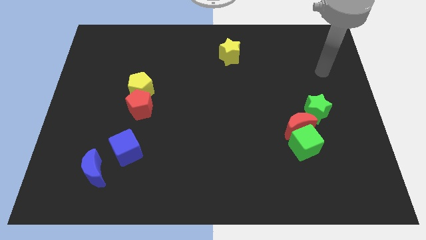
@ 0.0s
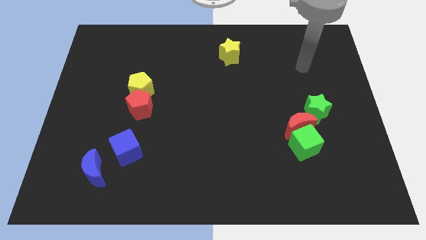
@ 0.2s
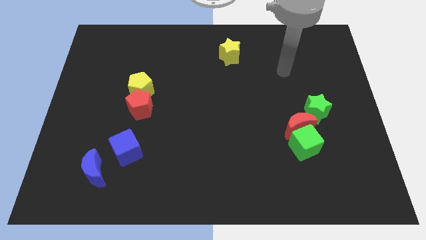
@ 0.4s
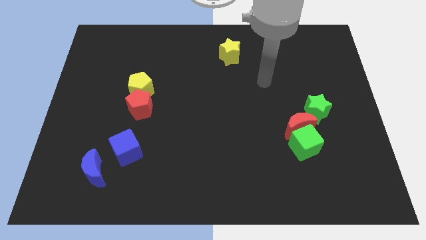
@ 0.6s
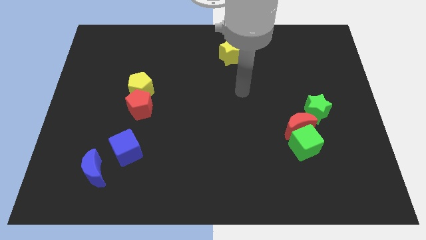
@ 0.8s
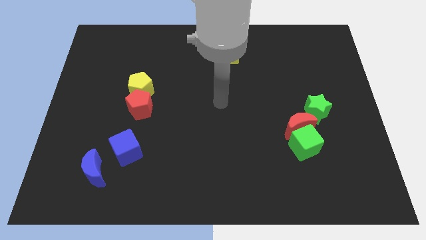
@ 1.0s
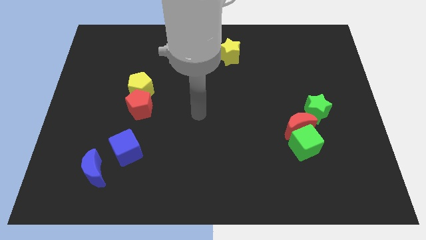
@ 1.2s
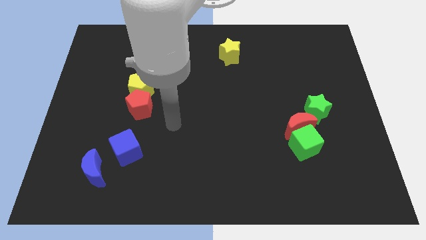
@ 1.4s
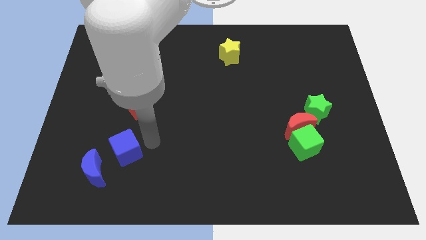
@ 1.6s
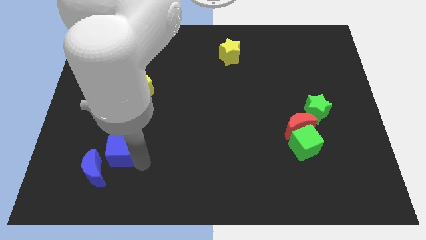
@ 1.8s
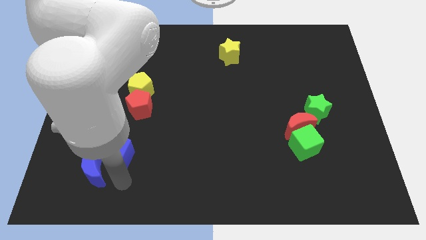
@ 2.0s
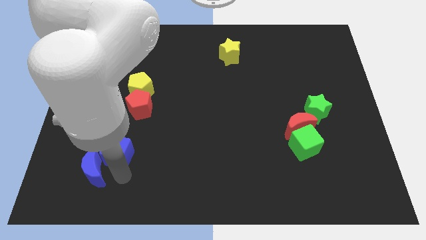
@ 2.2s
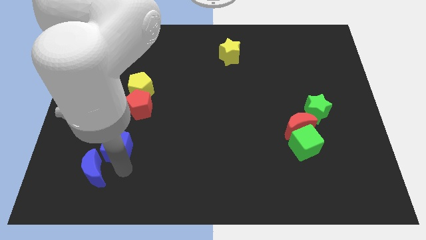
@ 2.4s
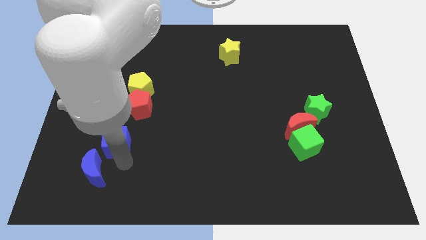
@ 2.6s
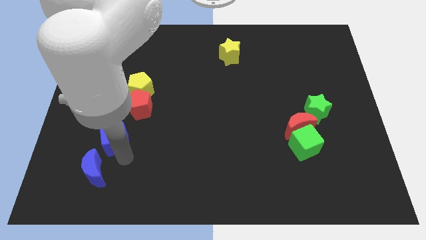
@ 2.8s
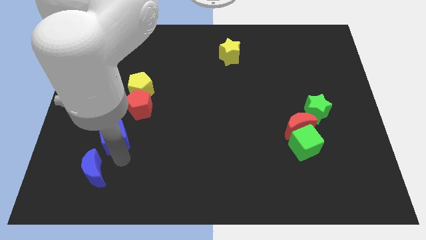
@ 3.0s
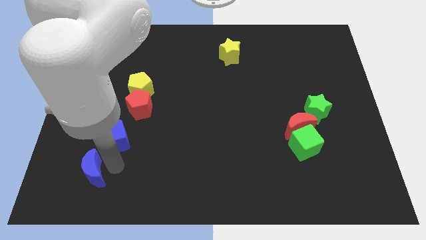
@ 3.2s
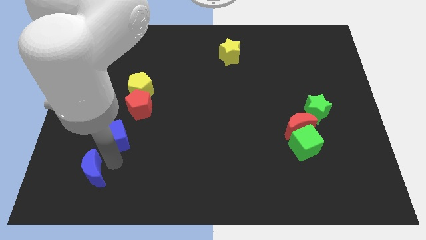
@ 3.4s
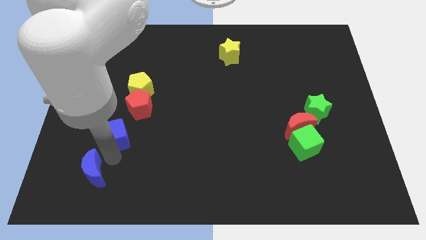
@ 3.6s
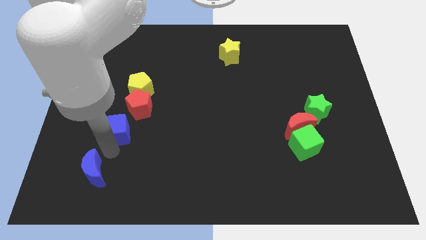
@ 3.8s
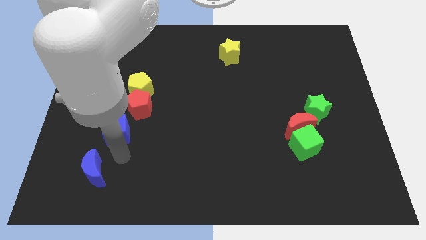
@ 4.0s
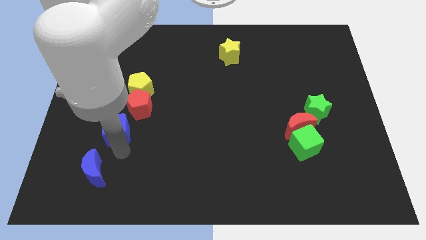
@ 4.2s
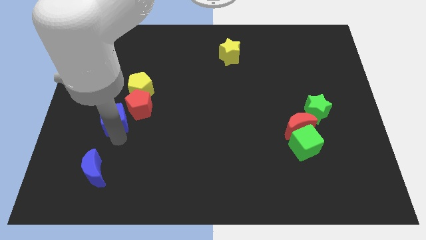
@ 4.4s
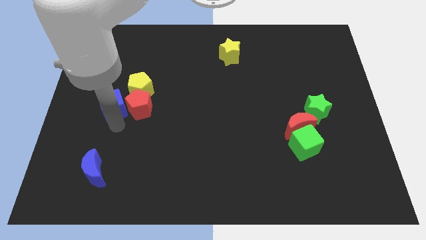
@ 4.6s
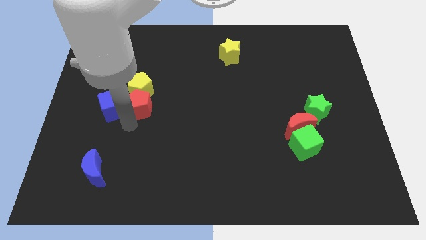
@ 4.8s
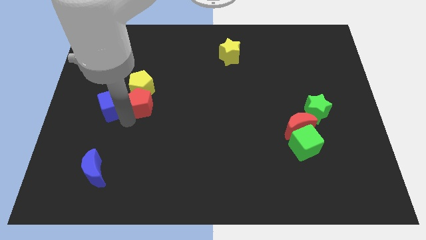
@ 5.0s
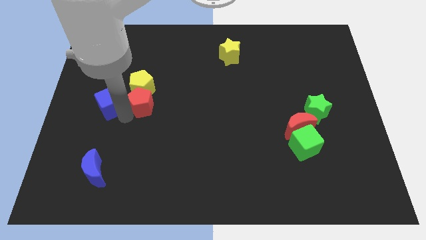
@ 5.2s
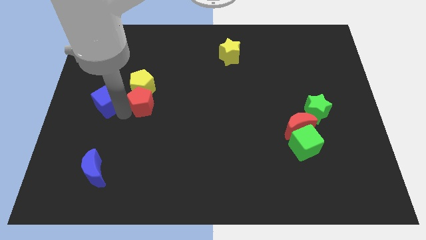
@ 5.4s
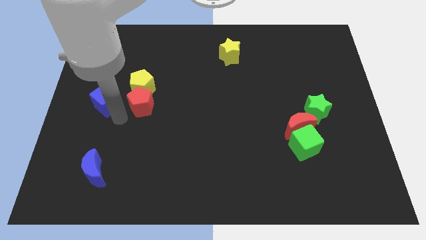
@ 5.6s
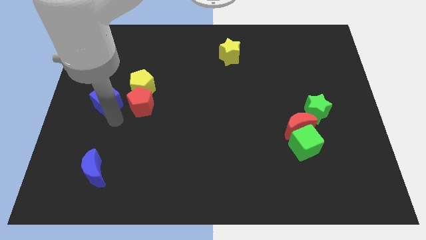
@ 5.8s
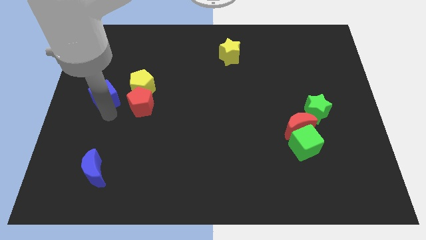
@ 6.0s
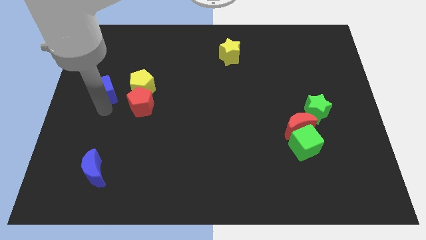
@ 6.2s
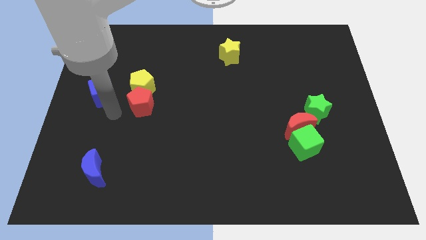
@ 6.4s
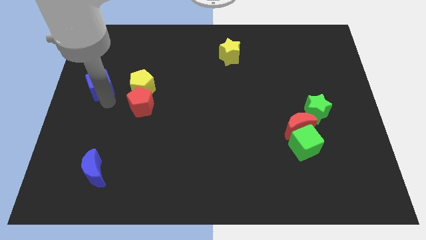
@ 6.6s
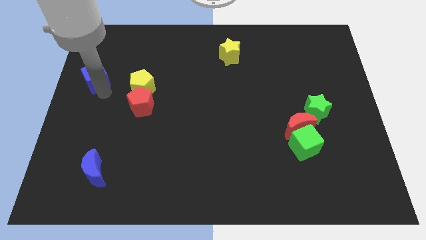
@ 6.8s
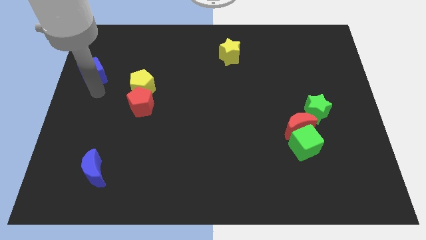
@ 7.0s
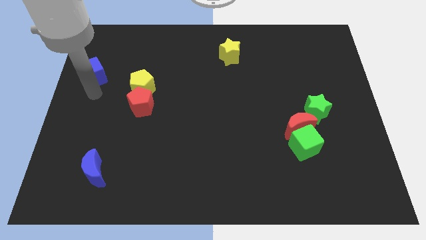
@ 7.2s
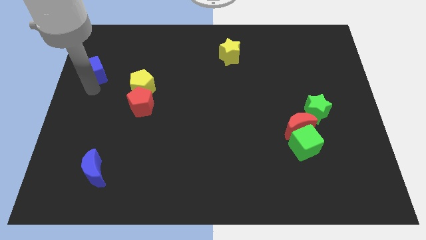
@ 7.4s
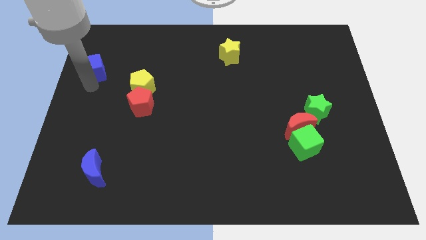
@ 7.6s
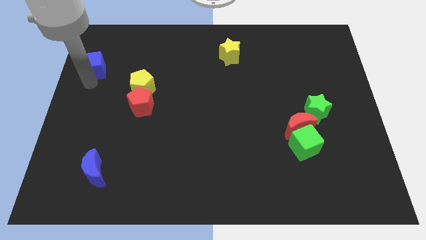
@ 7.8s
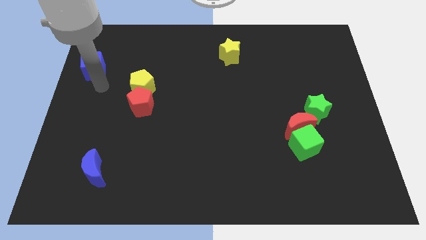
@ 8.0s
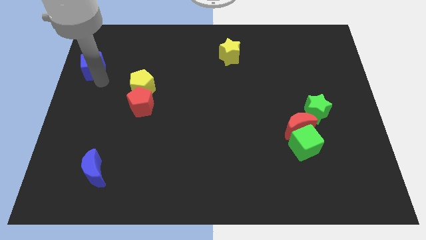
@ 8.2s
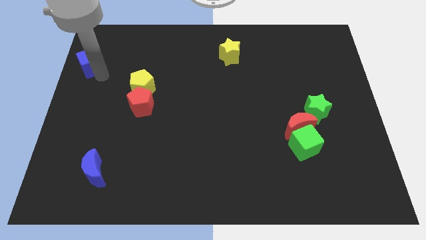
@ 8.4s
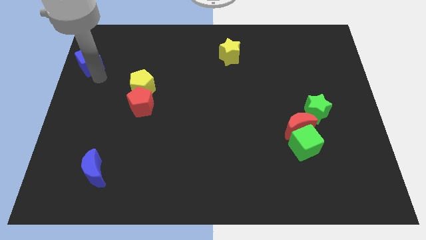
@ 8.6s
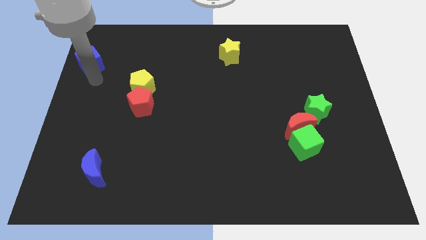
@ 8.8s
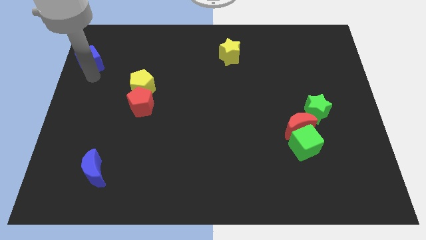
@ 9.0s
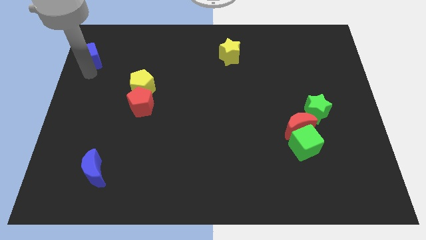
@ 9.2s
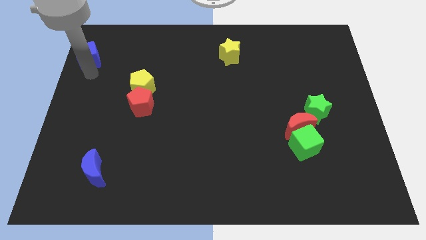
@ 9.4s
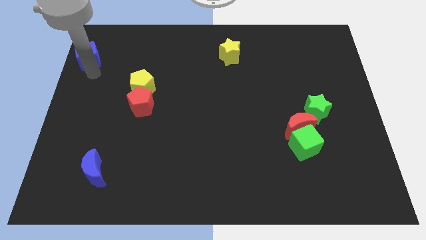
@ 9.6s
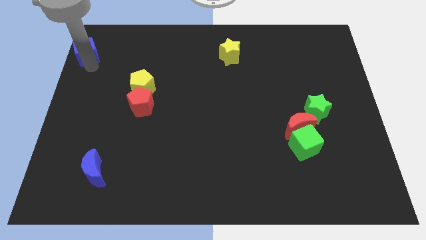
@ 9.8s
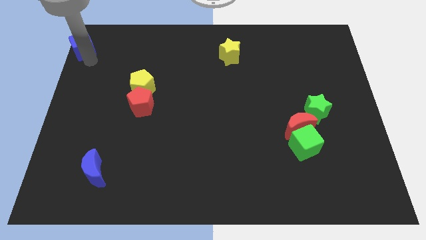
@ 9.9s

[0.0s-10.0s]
slide the blue cube to the top left corner

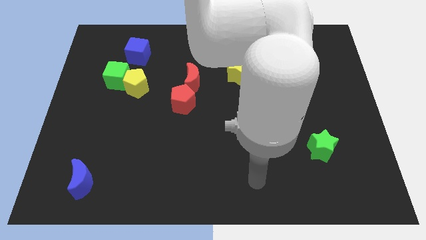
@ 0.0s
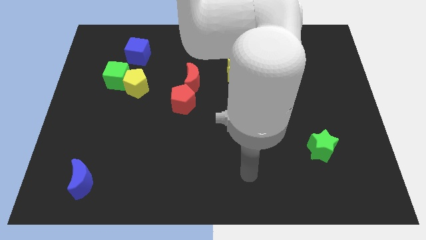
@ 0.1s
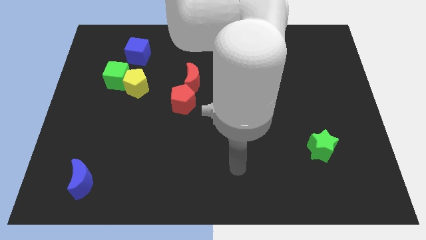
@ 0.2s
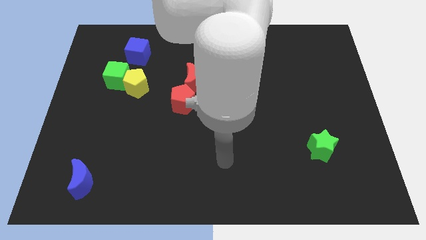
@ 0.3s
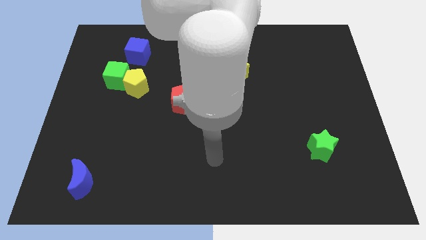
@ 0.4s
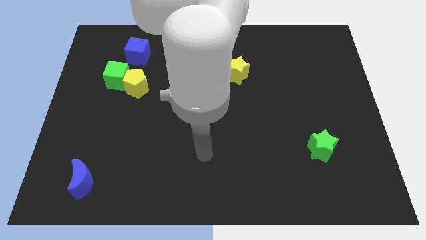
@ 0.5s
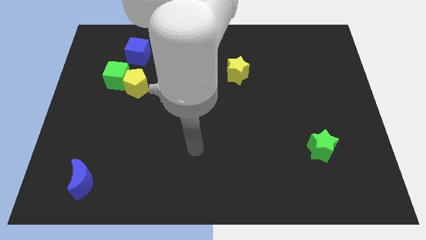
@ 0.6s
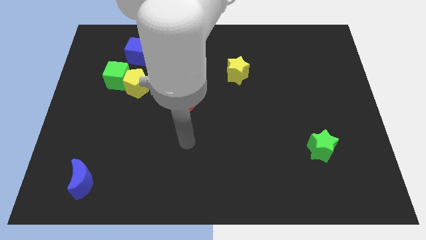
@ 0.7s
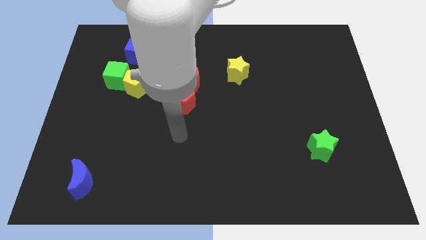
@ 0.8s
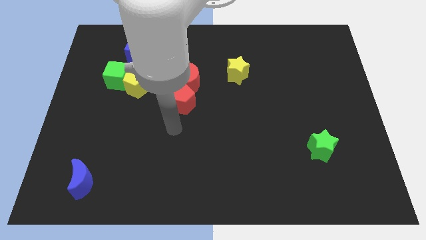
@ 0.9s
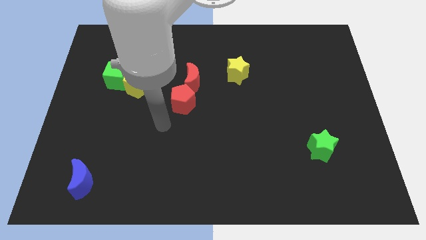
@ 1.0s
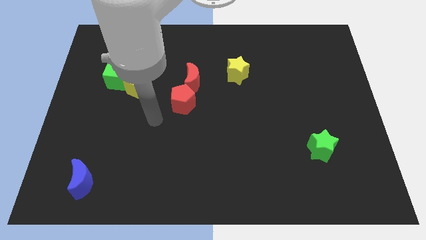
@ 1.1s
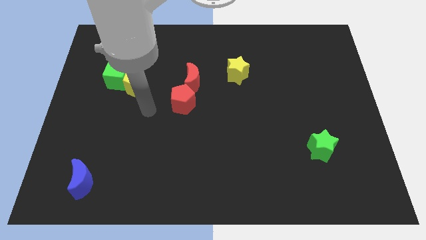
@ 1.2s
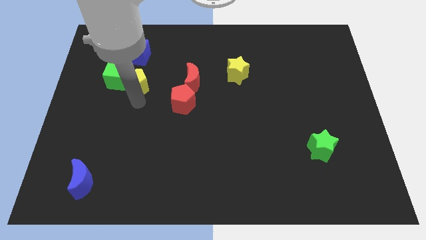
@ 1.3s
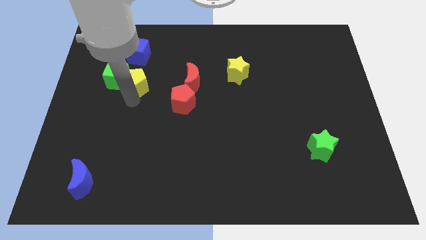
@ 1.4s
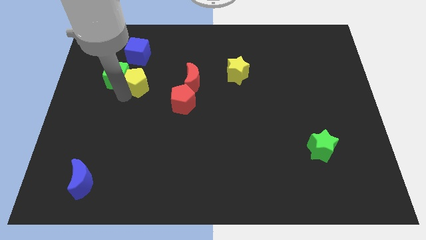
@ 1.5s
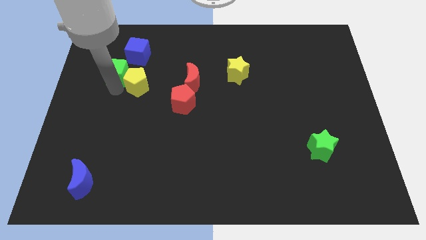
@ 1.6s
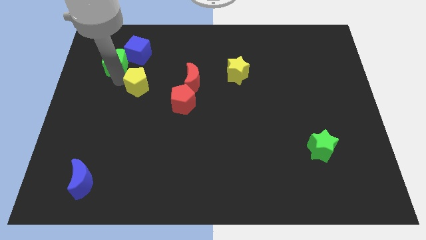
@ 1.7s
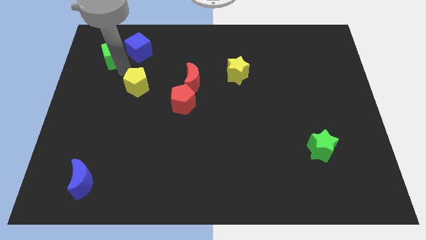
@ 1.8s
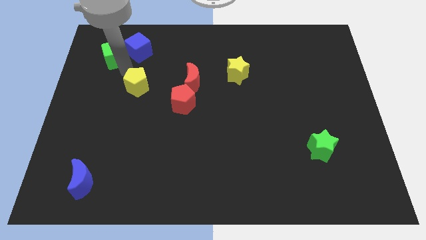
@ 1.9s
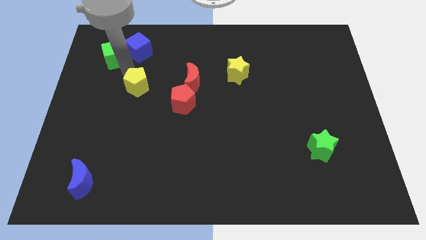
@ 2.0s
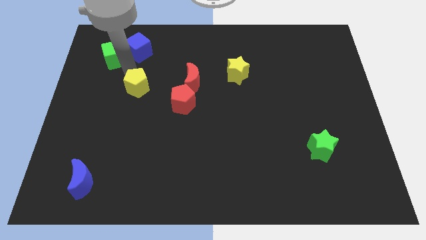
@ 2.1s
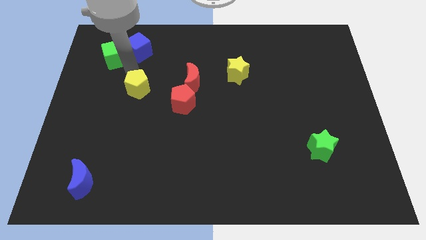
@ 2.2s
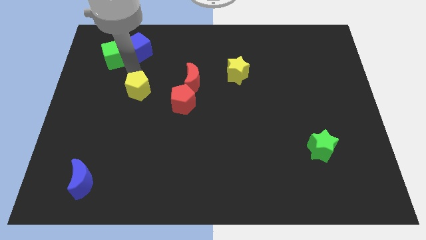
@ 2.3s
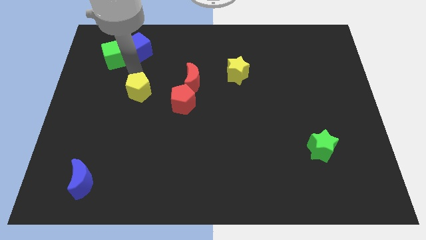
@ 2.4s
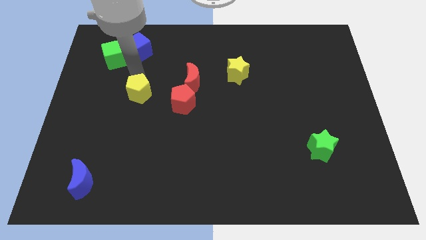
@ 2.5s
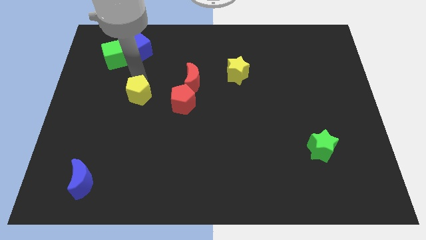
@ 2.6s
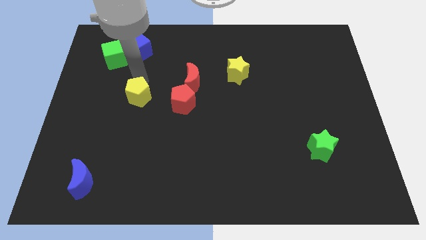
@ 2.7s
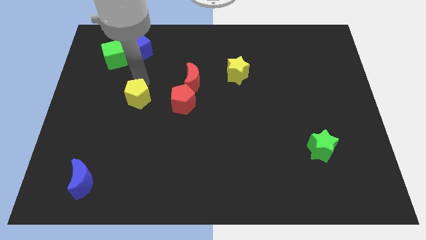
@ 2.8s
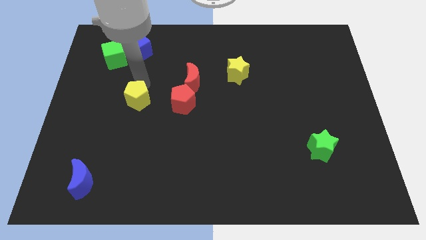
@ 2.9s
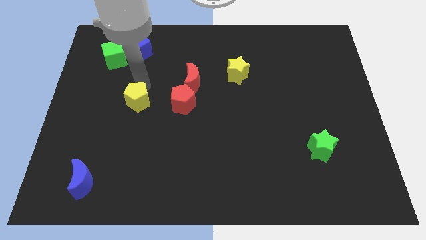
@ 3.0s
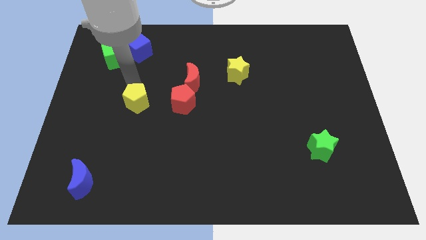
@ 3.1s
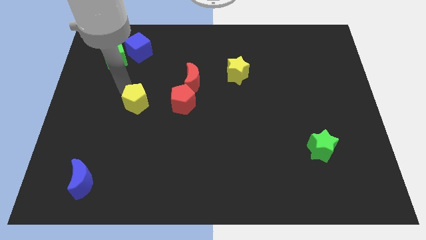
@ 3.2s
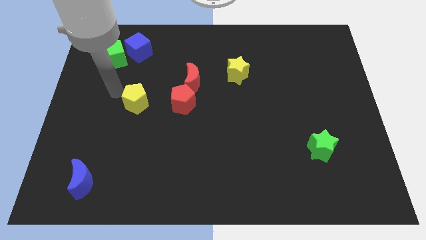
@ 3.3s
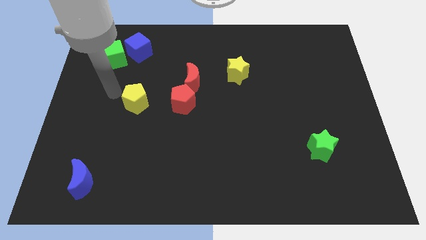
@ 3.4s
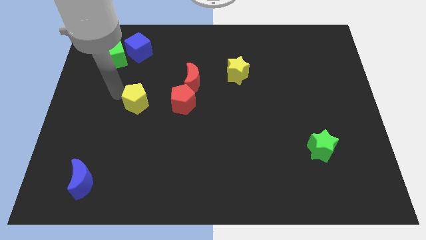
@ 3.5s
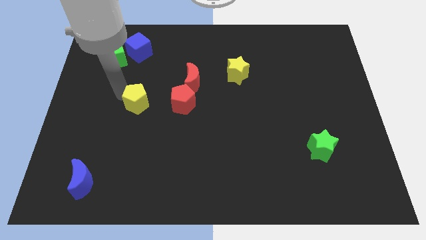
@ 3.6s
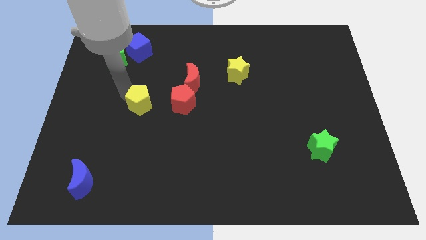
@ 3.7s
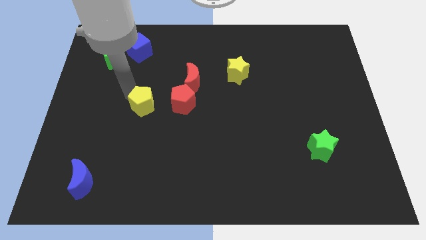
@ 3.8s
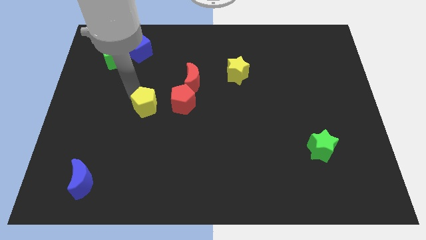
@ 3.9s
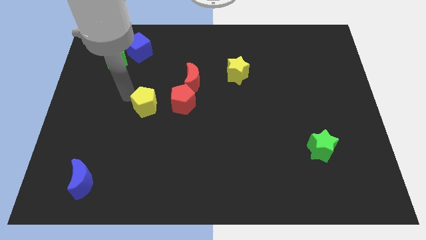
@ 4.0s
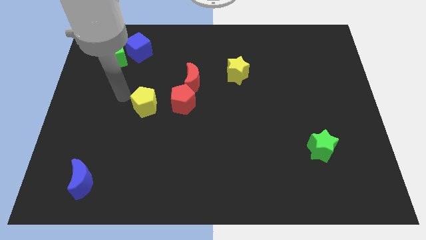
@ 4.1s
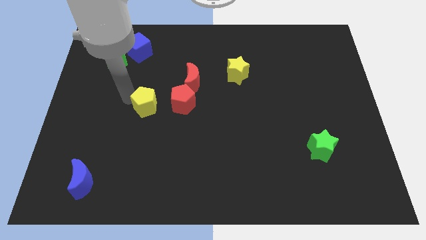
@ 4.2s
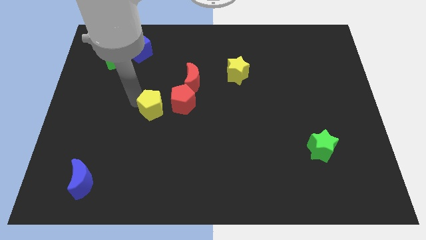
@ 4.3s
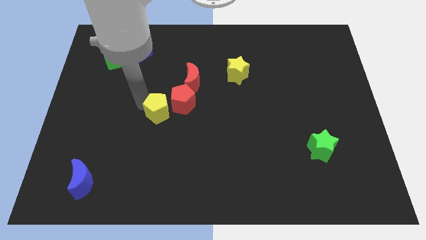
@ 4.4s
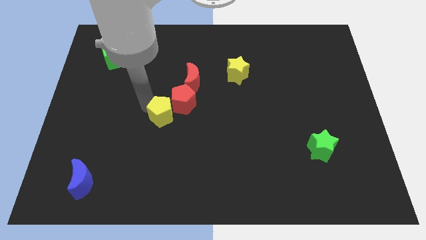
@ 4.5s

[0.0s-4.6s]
move the yellow pentagon to the middle
